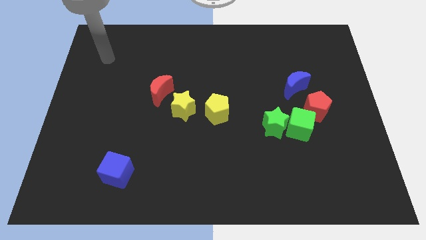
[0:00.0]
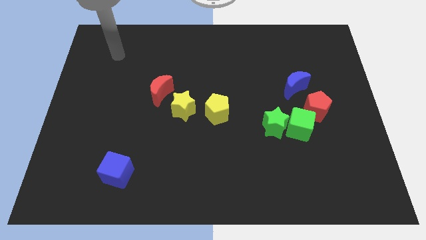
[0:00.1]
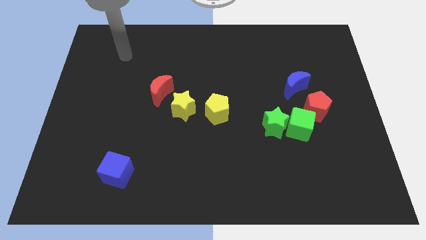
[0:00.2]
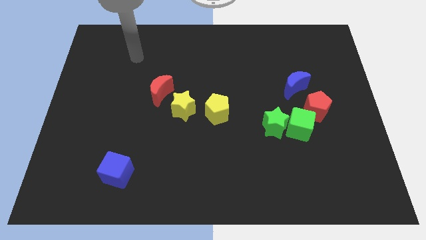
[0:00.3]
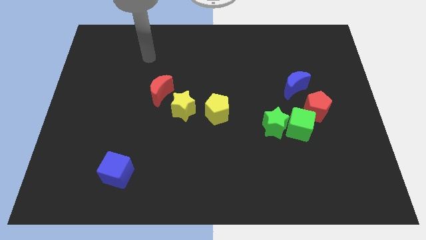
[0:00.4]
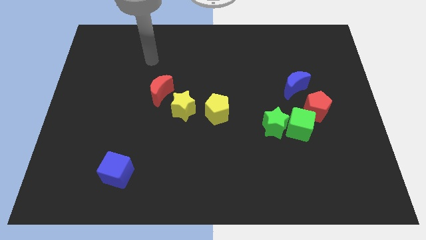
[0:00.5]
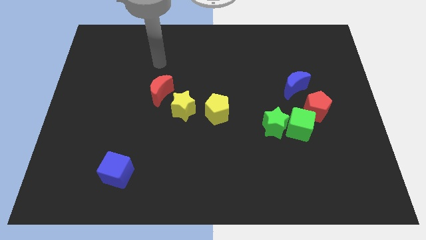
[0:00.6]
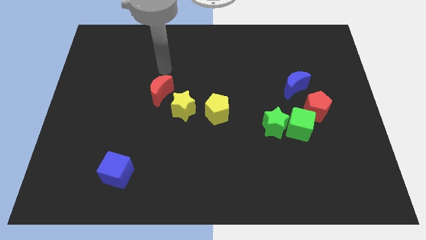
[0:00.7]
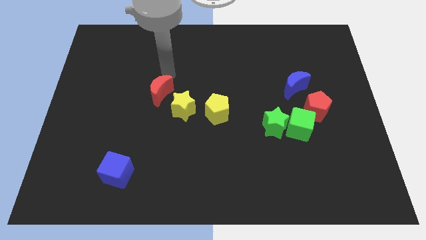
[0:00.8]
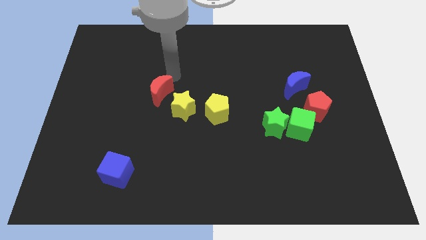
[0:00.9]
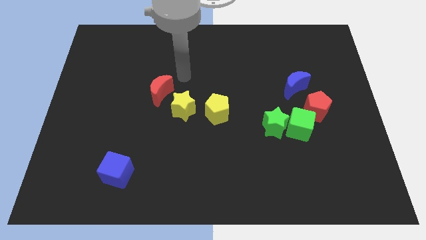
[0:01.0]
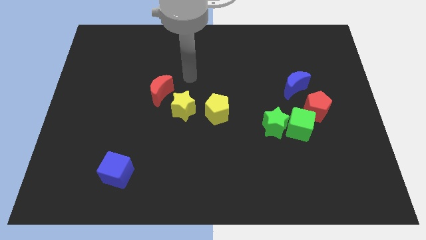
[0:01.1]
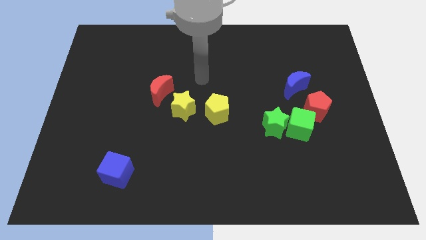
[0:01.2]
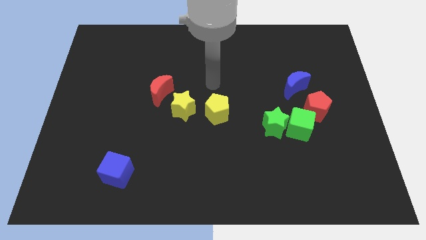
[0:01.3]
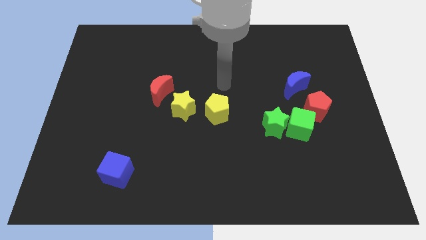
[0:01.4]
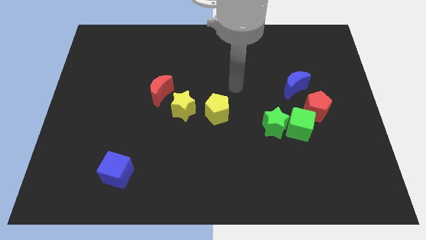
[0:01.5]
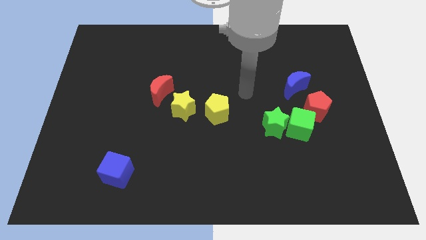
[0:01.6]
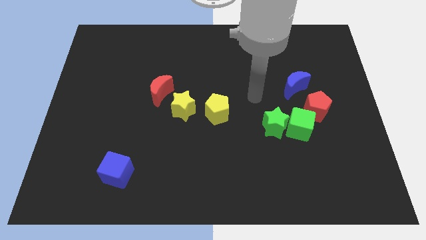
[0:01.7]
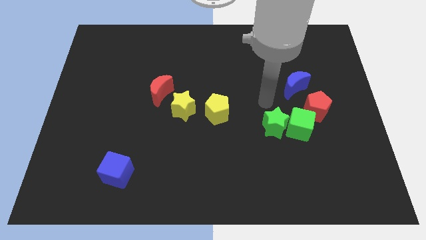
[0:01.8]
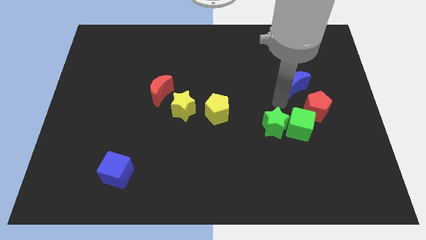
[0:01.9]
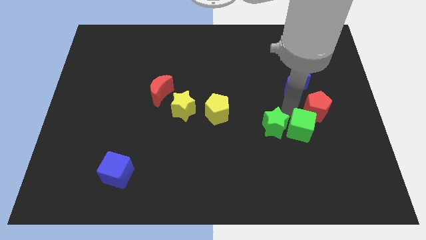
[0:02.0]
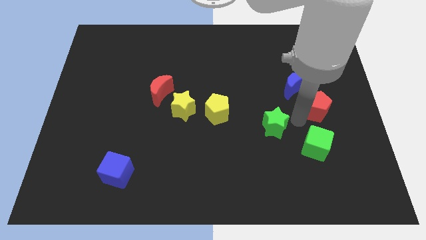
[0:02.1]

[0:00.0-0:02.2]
move the green star away from the green cube

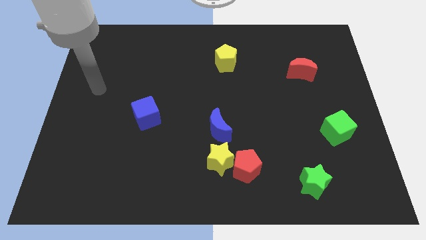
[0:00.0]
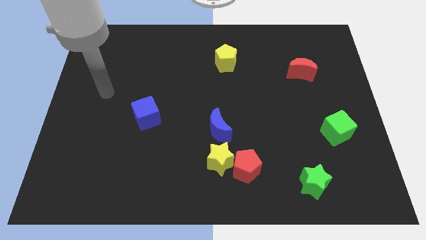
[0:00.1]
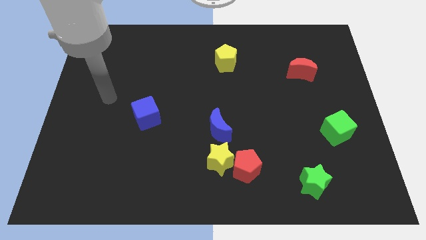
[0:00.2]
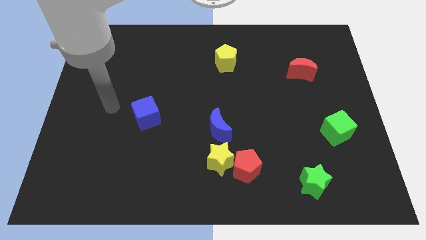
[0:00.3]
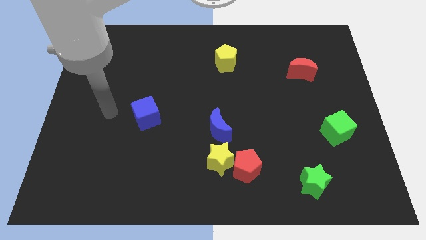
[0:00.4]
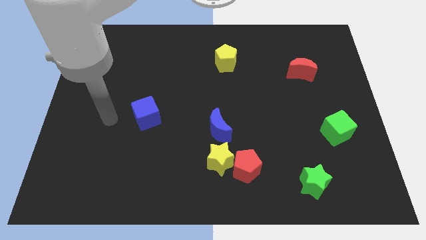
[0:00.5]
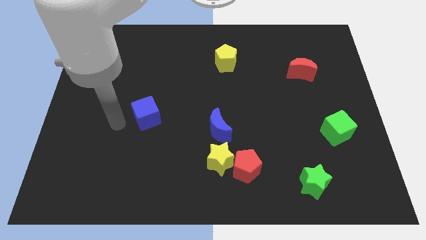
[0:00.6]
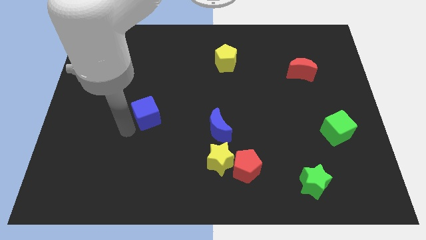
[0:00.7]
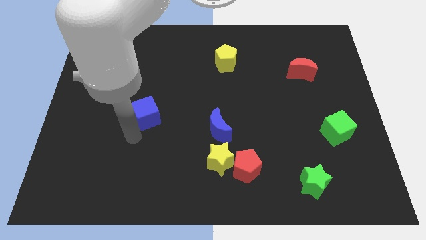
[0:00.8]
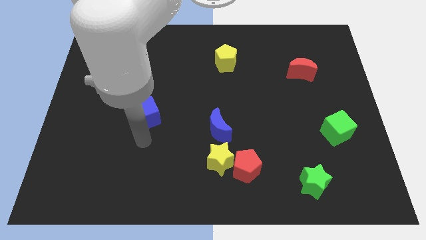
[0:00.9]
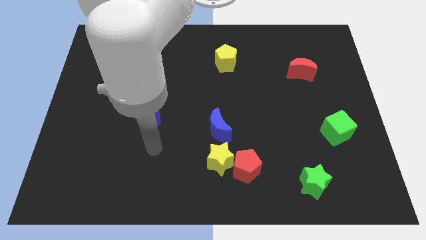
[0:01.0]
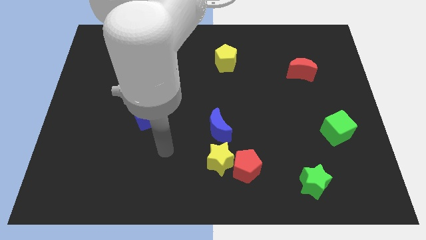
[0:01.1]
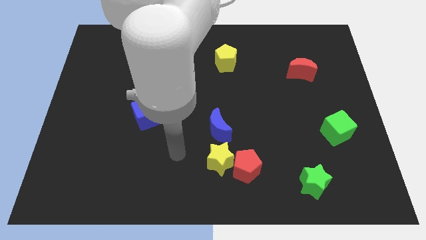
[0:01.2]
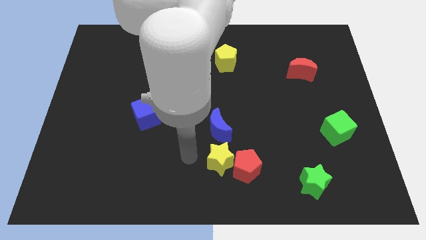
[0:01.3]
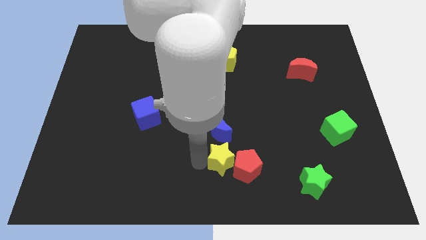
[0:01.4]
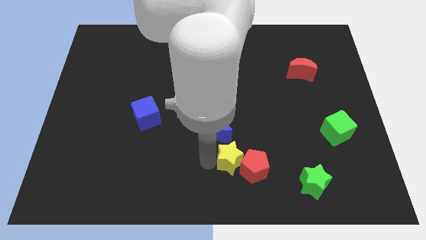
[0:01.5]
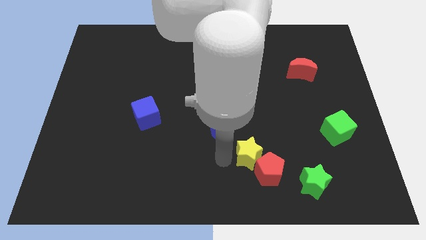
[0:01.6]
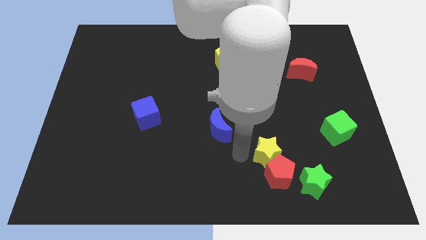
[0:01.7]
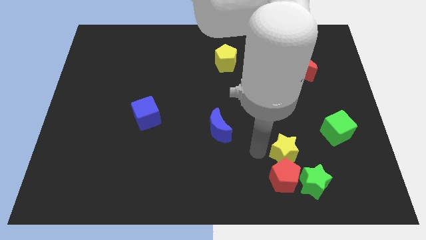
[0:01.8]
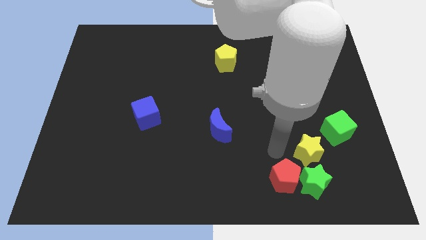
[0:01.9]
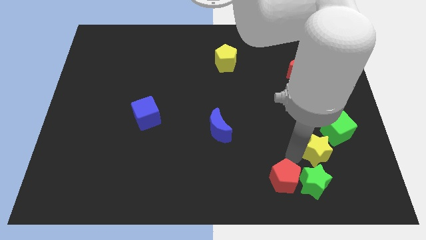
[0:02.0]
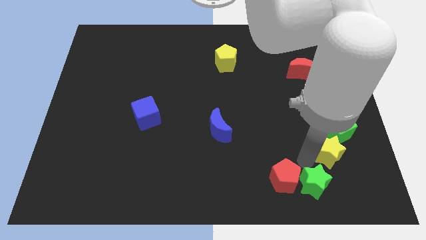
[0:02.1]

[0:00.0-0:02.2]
pull the red pentagon apart from the yellow star

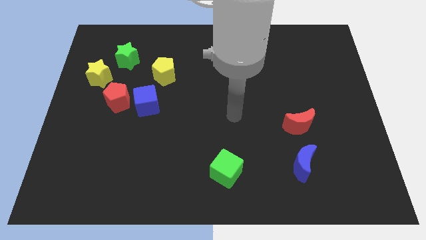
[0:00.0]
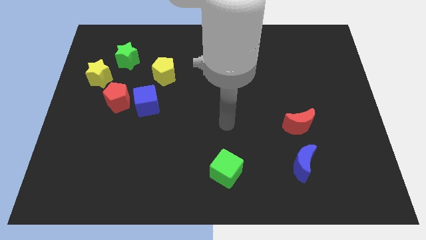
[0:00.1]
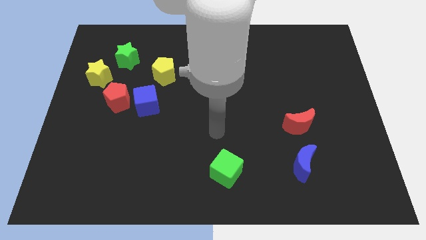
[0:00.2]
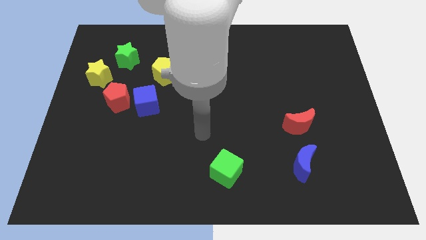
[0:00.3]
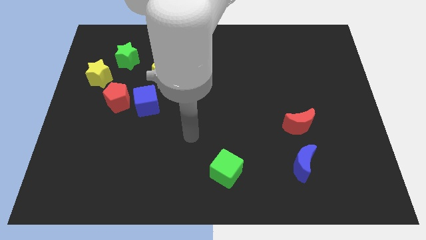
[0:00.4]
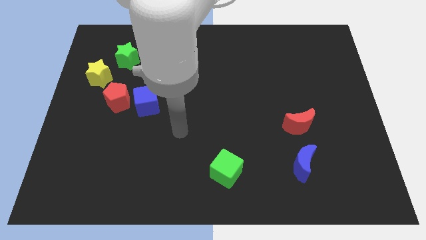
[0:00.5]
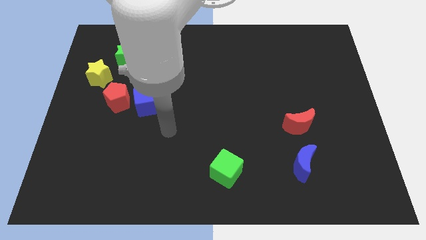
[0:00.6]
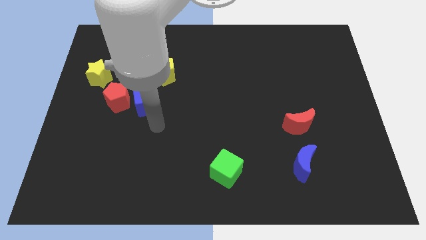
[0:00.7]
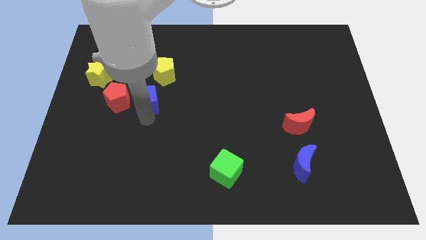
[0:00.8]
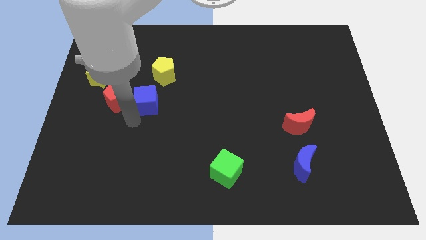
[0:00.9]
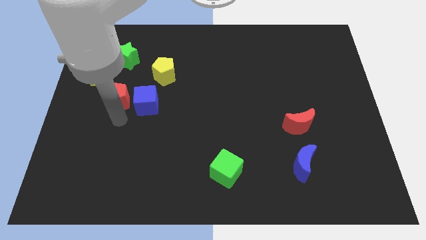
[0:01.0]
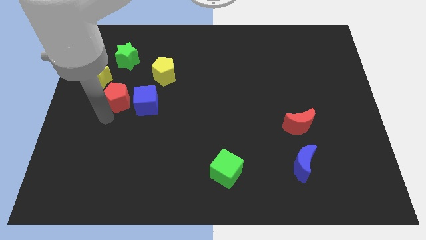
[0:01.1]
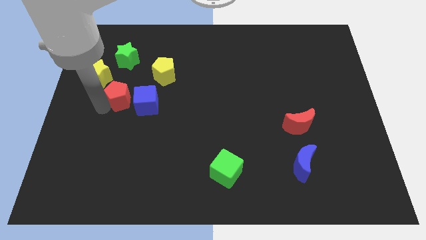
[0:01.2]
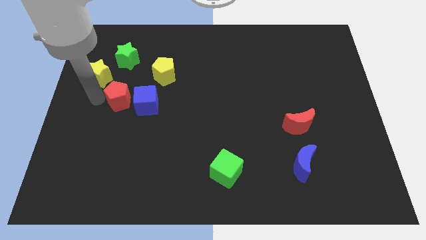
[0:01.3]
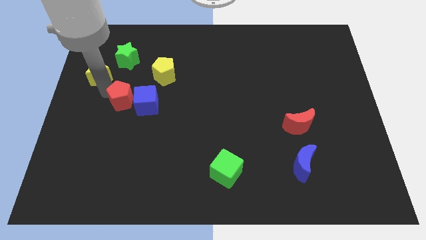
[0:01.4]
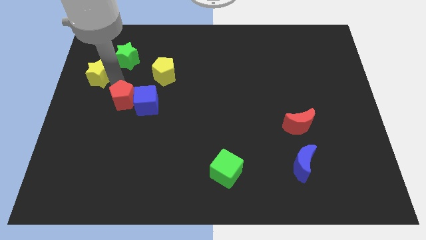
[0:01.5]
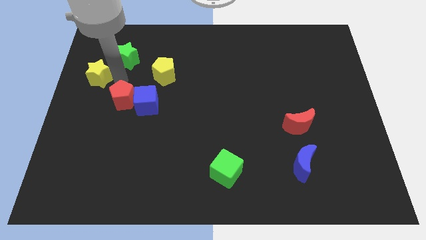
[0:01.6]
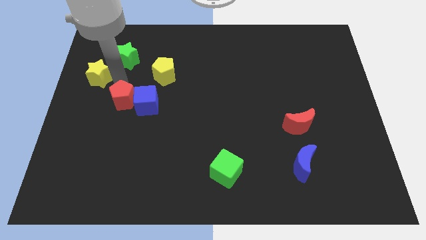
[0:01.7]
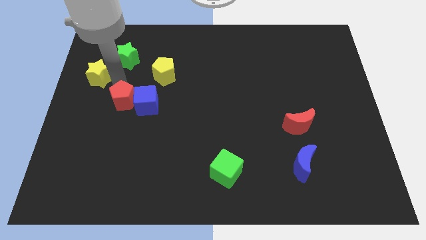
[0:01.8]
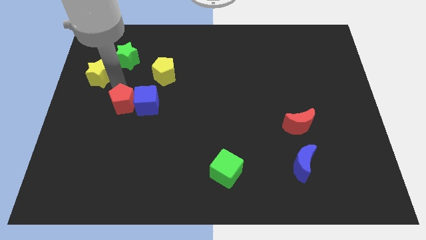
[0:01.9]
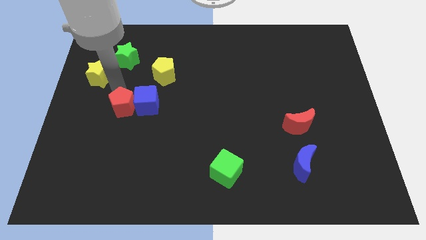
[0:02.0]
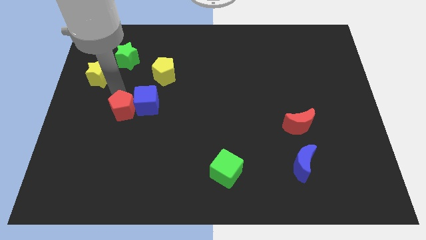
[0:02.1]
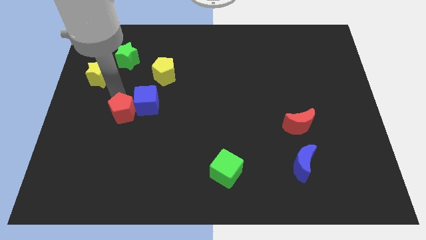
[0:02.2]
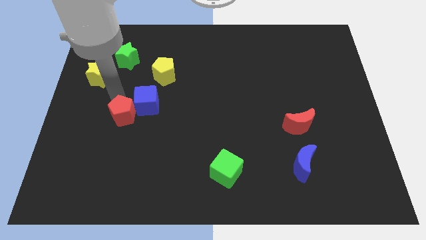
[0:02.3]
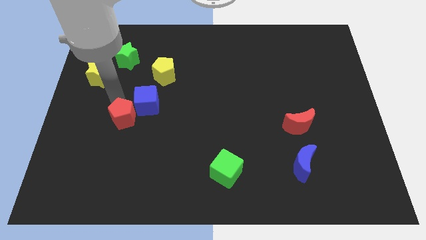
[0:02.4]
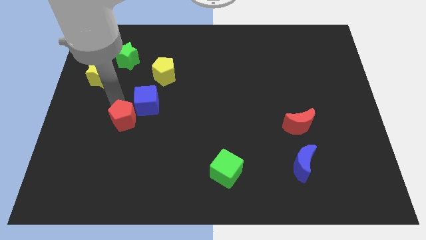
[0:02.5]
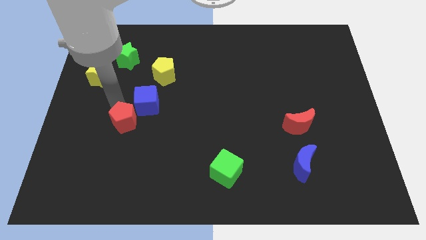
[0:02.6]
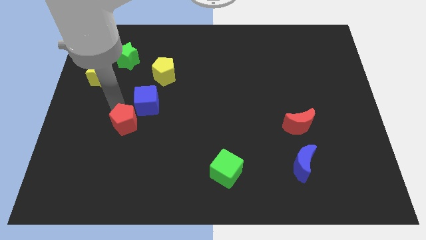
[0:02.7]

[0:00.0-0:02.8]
move the red pentagon away from the blue cube and yellow star

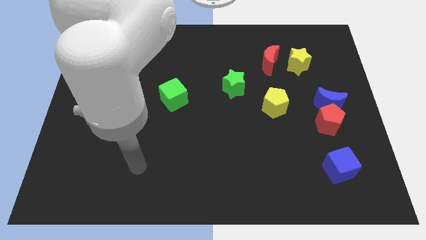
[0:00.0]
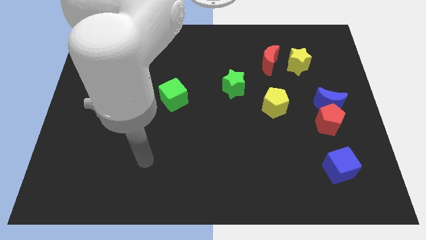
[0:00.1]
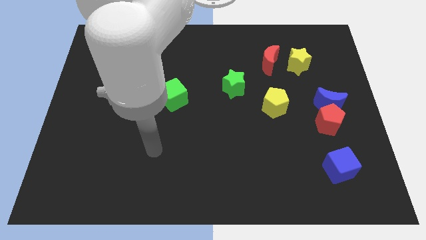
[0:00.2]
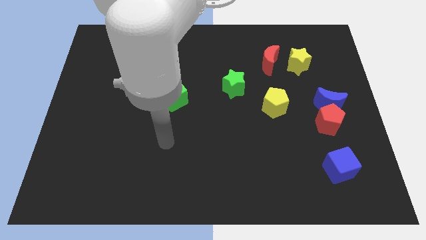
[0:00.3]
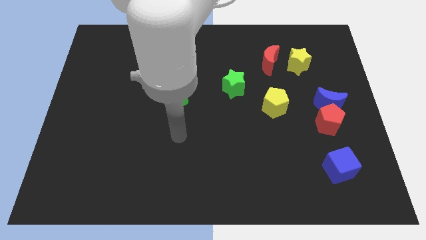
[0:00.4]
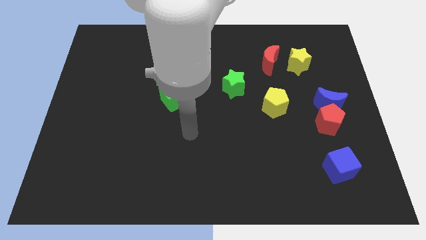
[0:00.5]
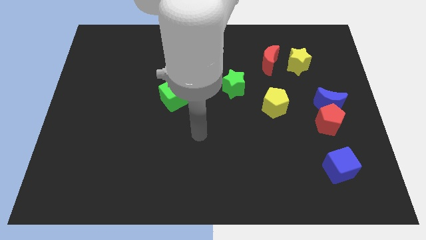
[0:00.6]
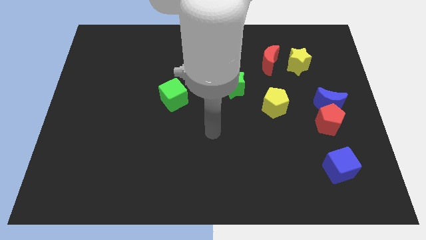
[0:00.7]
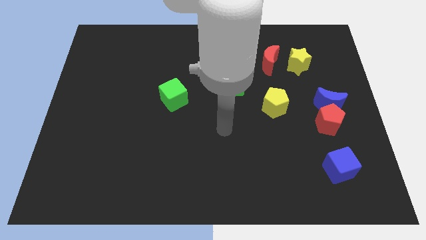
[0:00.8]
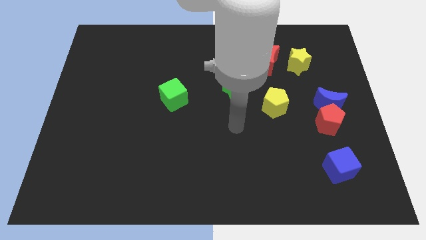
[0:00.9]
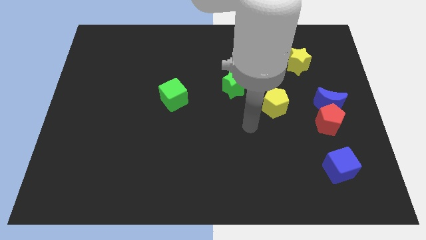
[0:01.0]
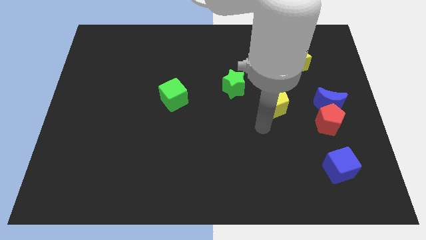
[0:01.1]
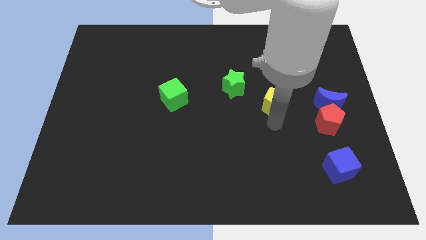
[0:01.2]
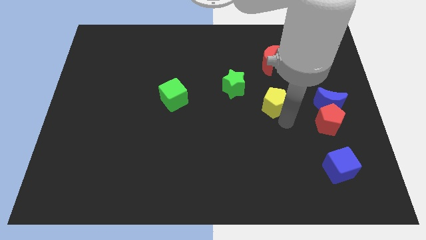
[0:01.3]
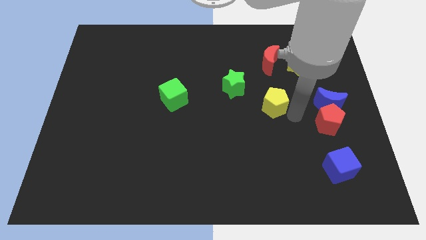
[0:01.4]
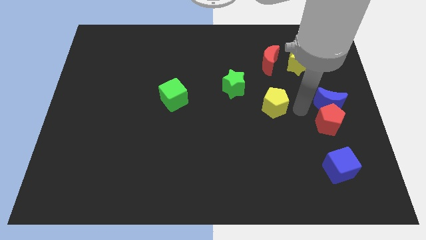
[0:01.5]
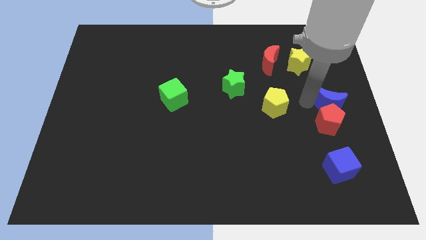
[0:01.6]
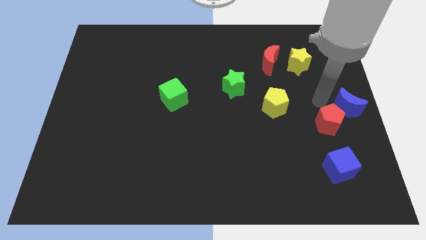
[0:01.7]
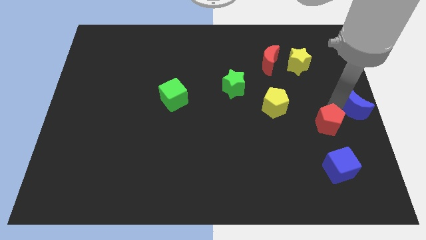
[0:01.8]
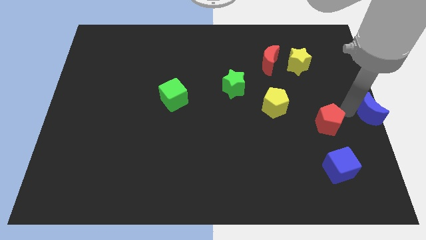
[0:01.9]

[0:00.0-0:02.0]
move the red pentagon away from the blue moon
